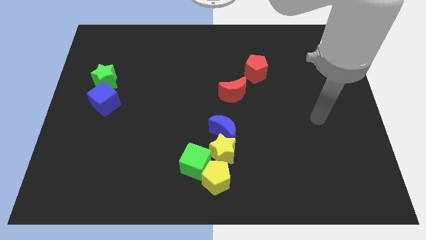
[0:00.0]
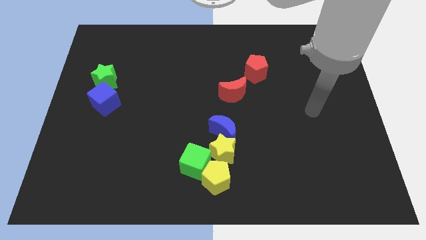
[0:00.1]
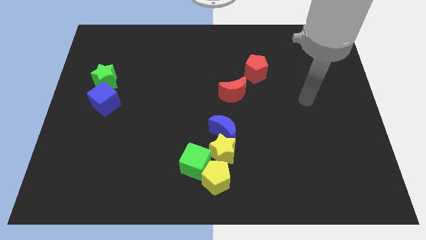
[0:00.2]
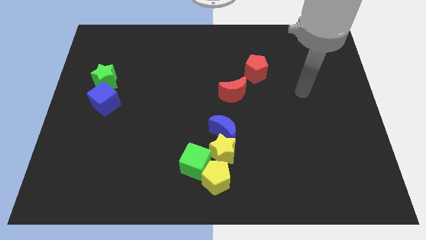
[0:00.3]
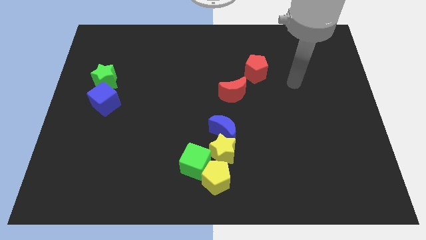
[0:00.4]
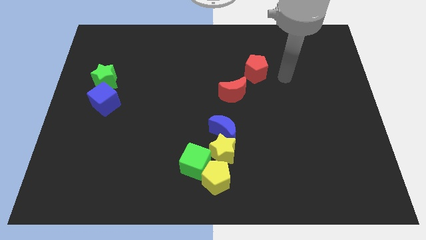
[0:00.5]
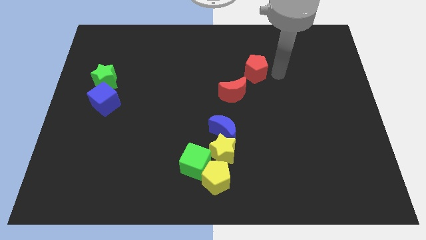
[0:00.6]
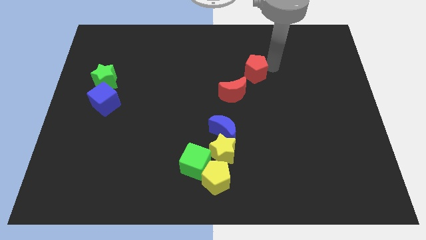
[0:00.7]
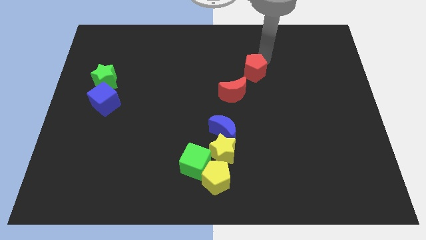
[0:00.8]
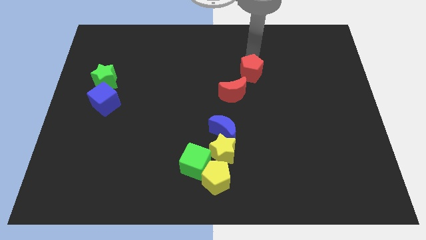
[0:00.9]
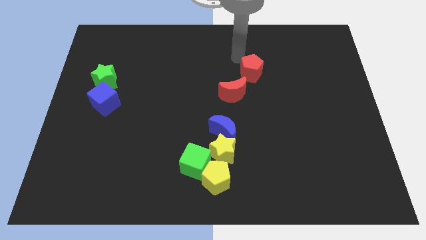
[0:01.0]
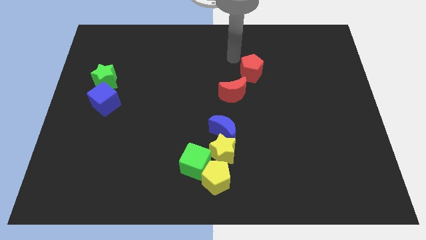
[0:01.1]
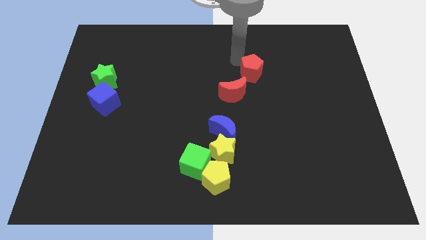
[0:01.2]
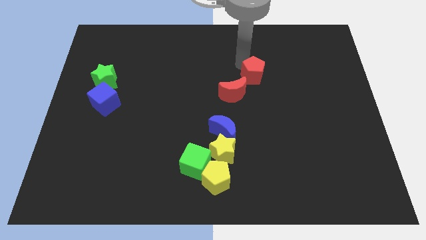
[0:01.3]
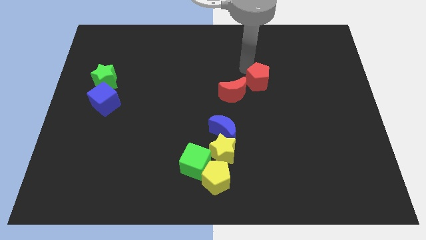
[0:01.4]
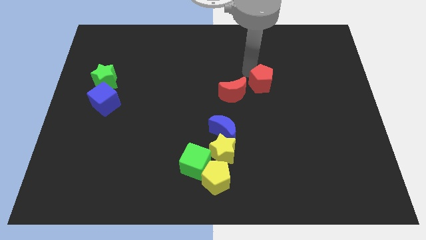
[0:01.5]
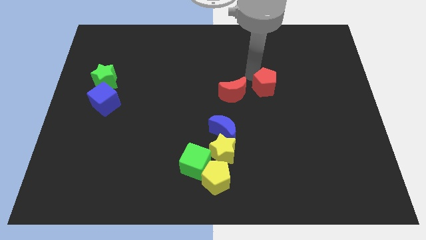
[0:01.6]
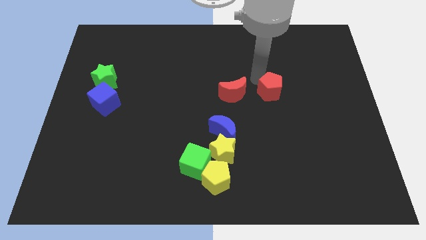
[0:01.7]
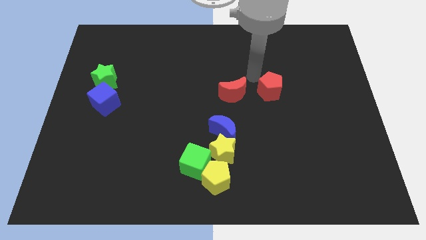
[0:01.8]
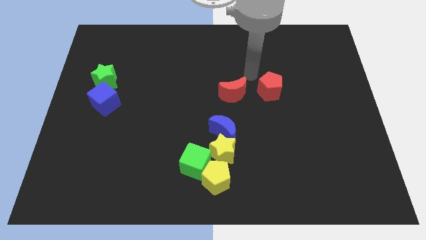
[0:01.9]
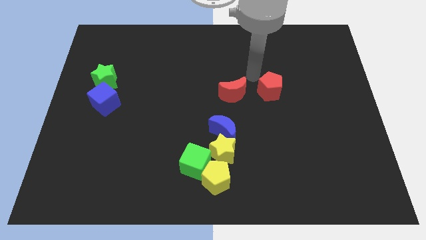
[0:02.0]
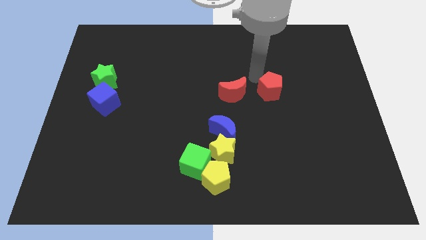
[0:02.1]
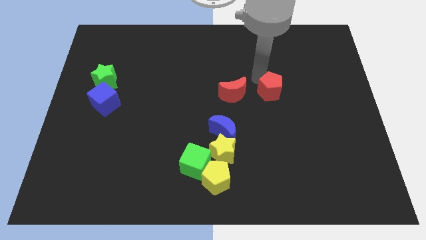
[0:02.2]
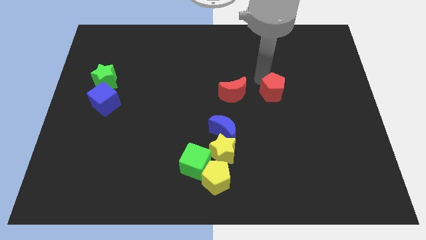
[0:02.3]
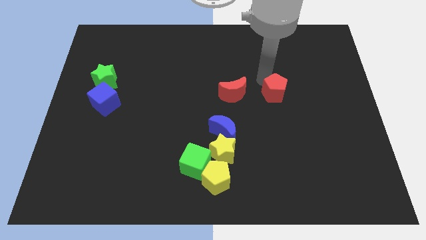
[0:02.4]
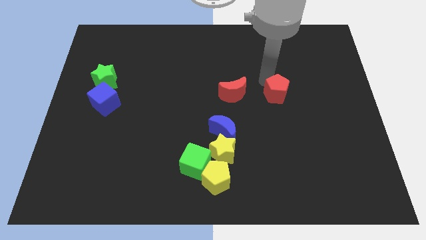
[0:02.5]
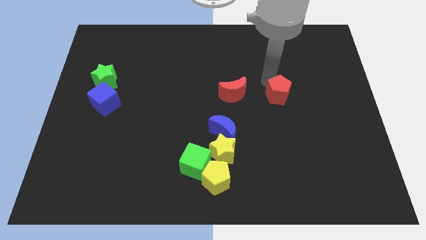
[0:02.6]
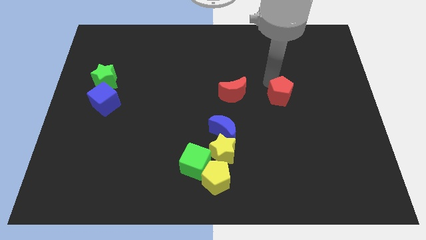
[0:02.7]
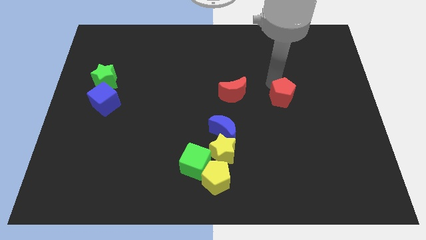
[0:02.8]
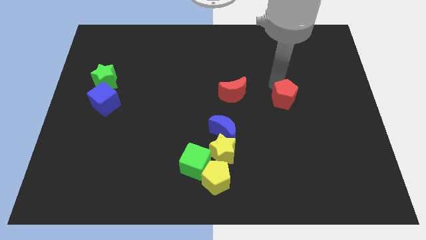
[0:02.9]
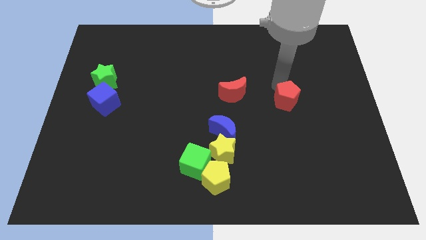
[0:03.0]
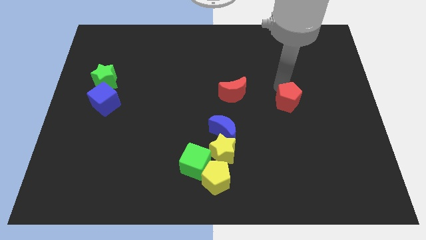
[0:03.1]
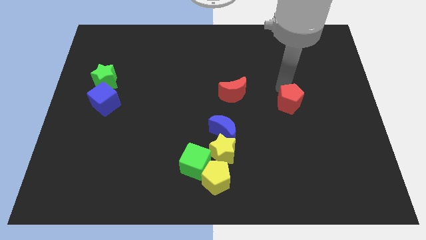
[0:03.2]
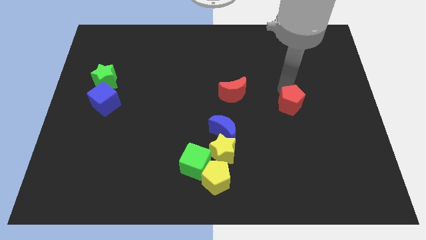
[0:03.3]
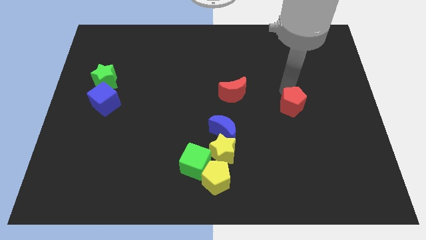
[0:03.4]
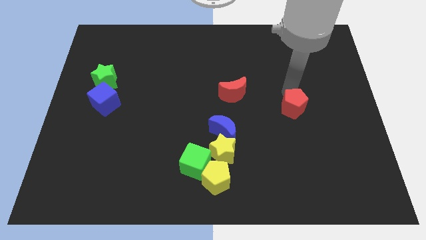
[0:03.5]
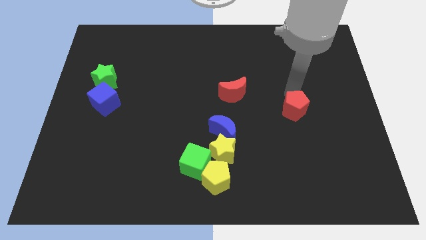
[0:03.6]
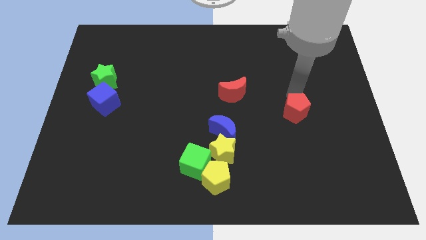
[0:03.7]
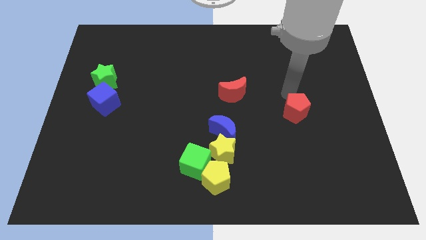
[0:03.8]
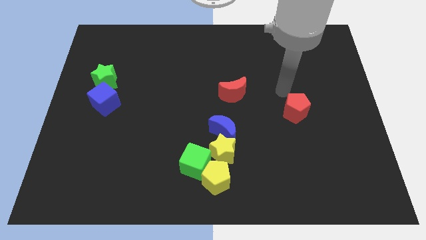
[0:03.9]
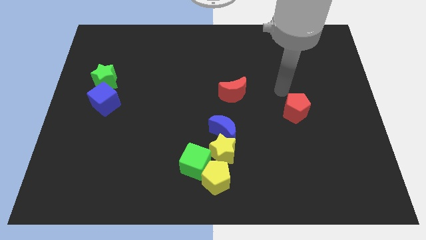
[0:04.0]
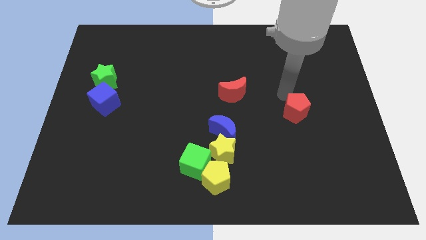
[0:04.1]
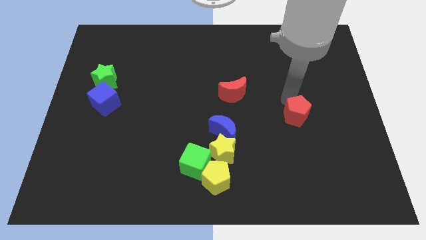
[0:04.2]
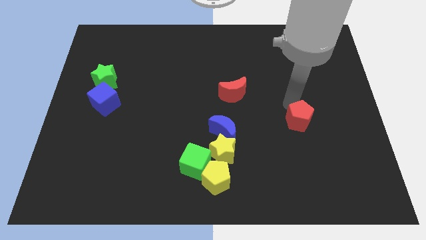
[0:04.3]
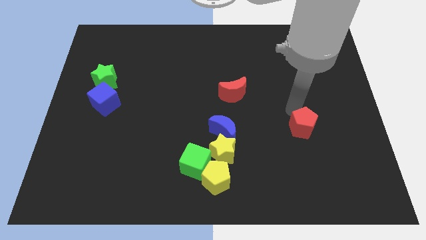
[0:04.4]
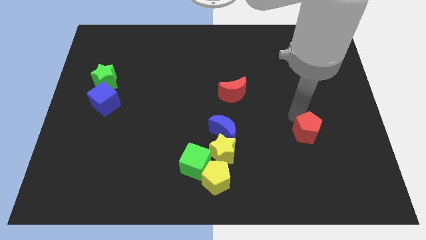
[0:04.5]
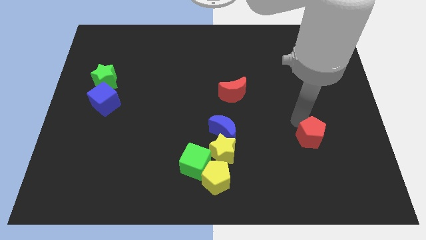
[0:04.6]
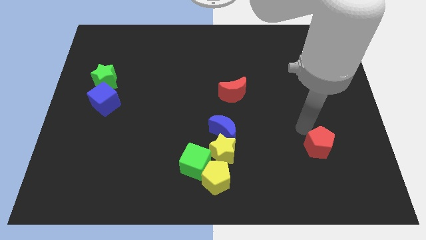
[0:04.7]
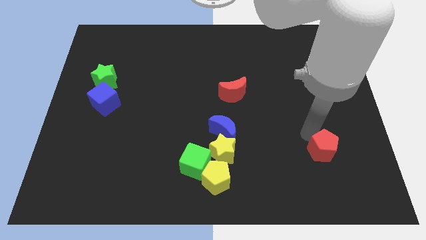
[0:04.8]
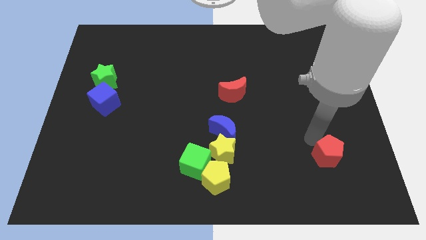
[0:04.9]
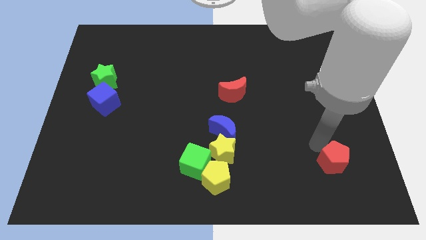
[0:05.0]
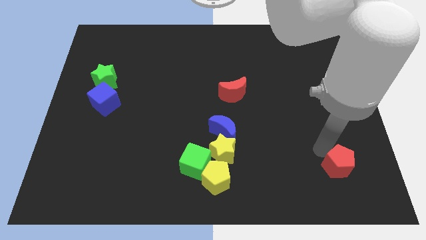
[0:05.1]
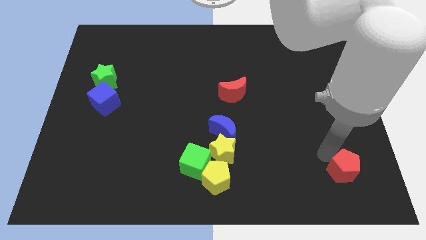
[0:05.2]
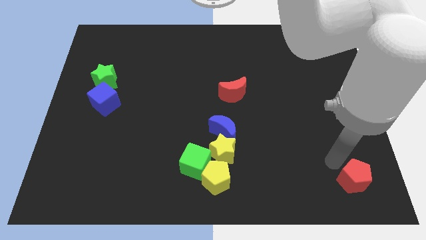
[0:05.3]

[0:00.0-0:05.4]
put the red pentagon to the bottom right of the board

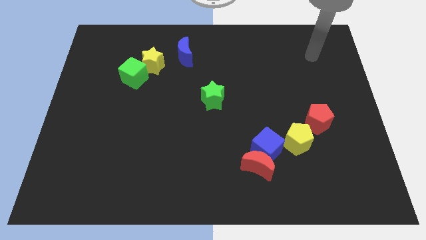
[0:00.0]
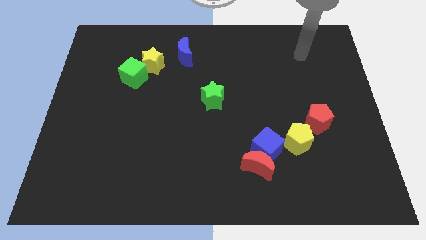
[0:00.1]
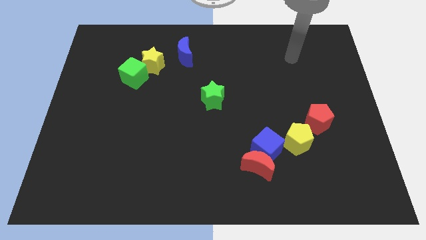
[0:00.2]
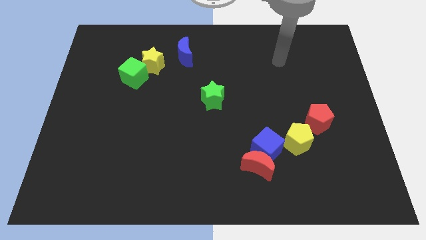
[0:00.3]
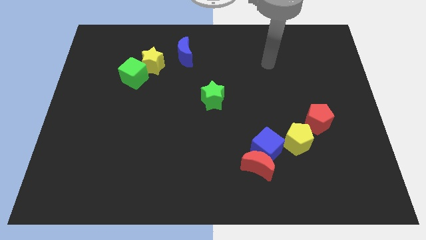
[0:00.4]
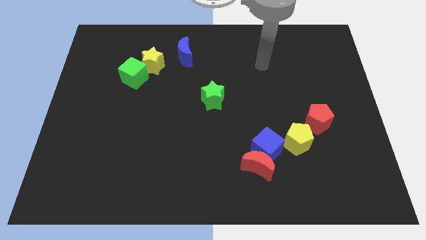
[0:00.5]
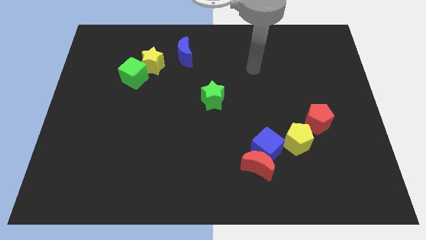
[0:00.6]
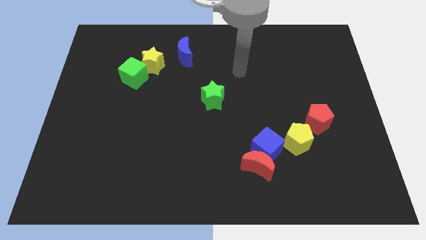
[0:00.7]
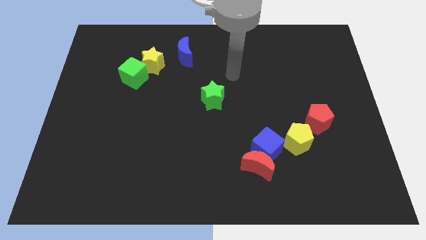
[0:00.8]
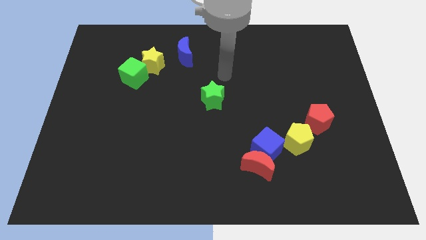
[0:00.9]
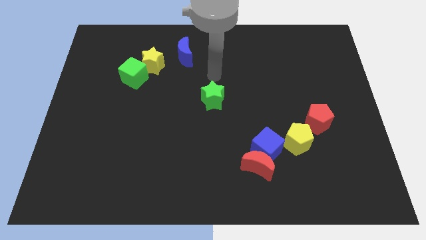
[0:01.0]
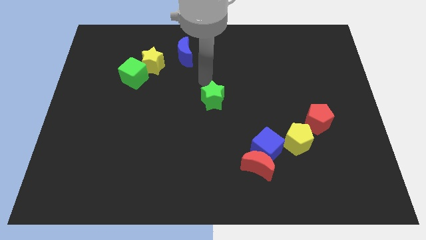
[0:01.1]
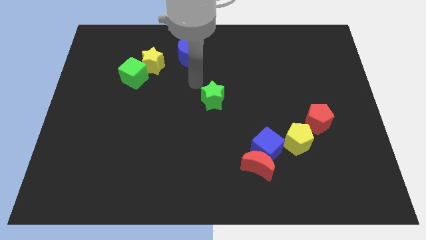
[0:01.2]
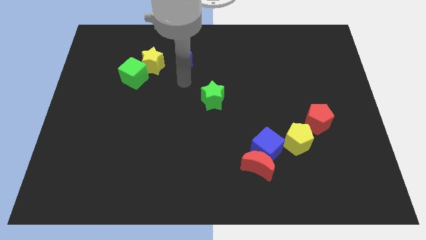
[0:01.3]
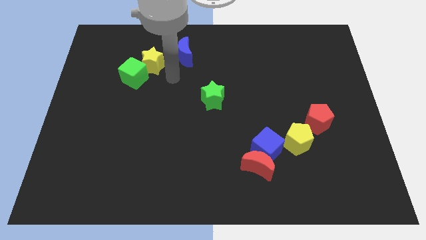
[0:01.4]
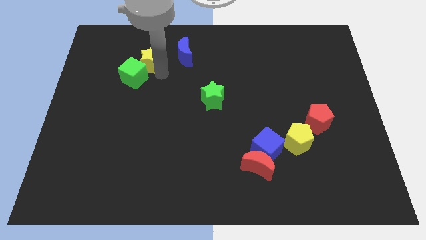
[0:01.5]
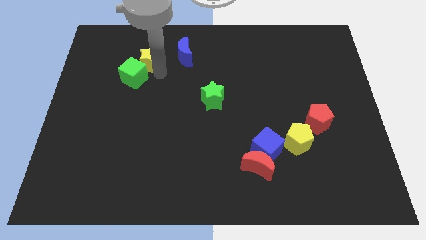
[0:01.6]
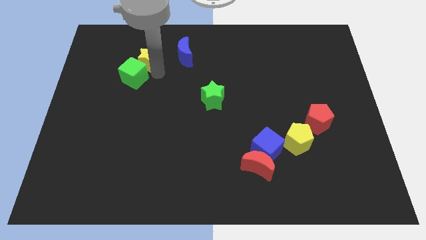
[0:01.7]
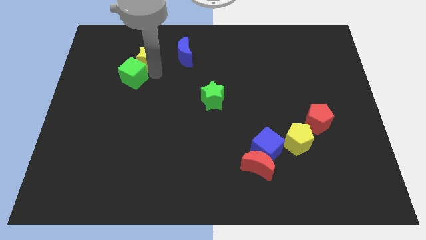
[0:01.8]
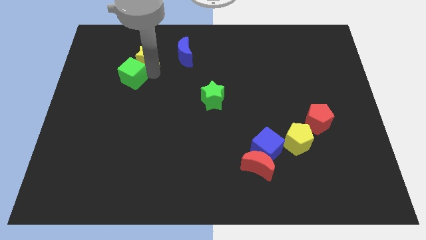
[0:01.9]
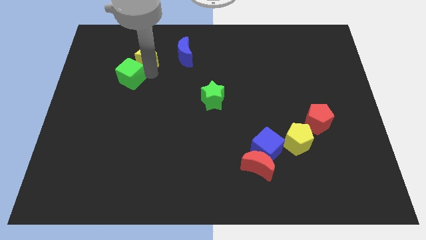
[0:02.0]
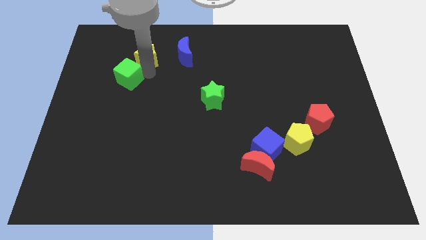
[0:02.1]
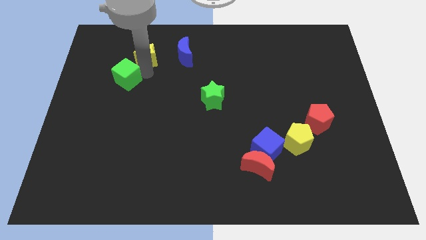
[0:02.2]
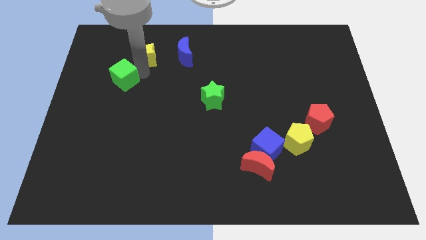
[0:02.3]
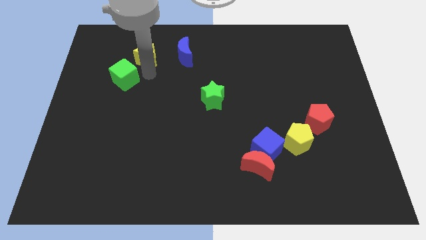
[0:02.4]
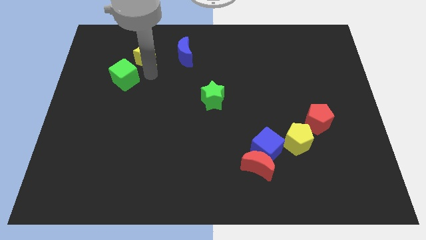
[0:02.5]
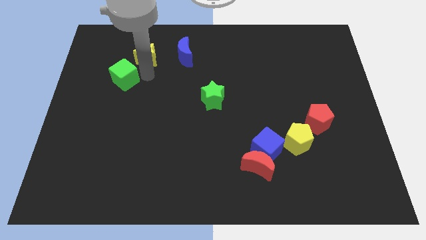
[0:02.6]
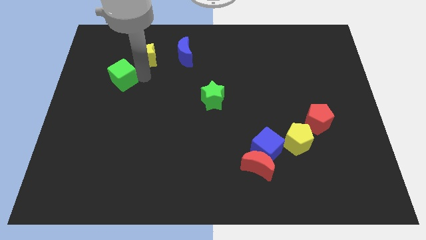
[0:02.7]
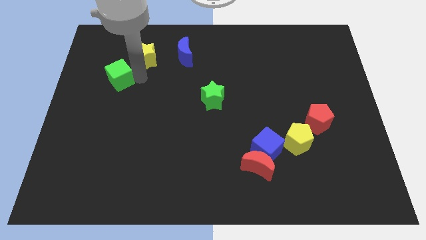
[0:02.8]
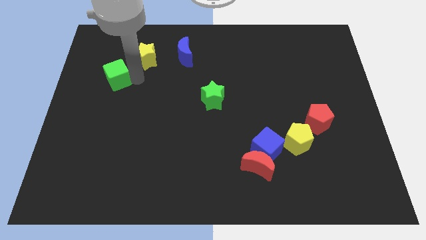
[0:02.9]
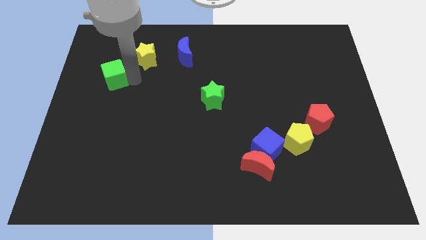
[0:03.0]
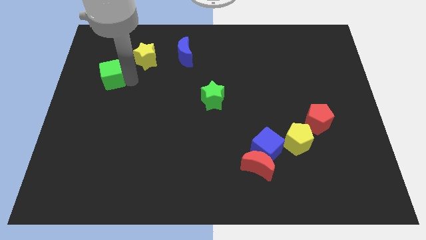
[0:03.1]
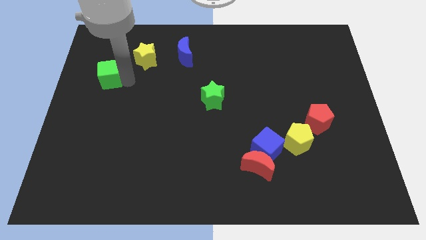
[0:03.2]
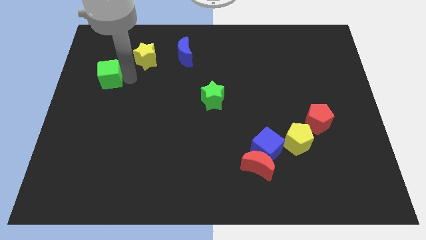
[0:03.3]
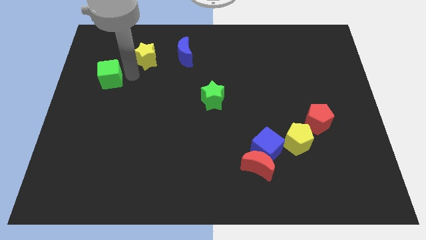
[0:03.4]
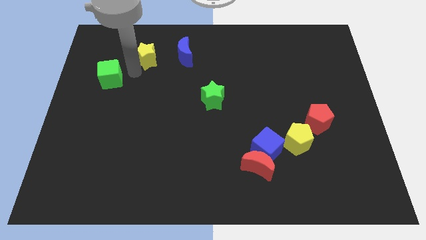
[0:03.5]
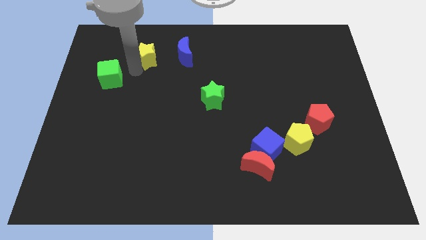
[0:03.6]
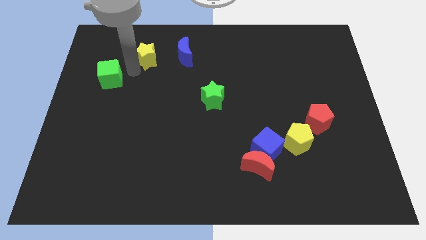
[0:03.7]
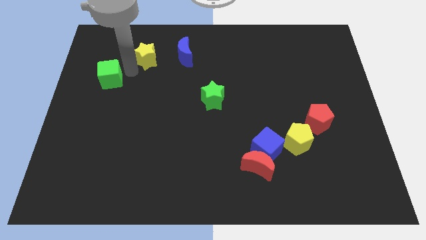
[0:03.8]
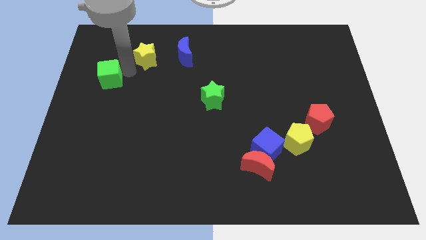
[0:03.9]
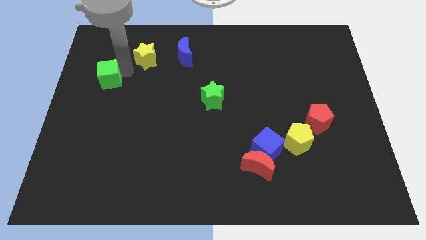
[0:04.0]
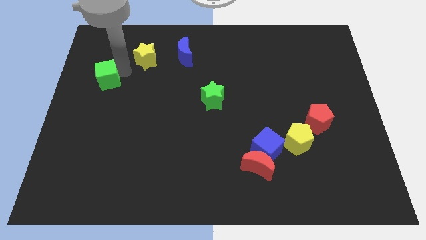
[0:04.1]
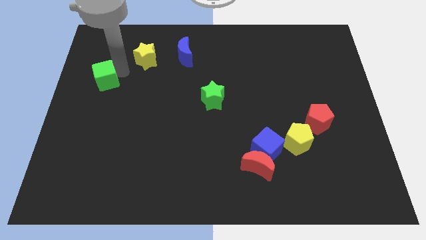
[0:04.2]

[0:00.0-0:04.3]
slide the green cube to the left side of the board
